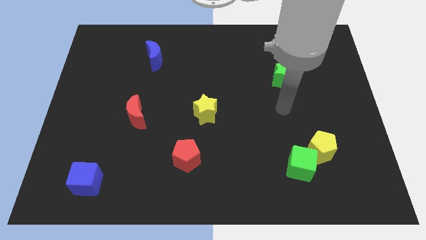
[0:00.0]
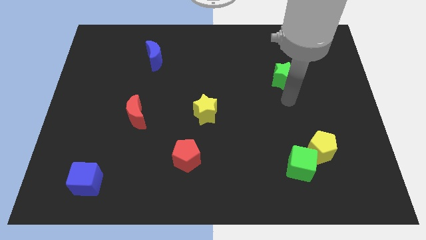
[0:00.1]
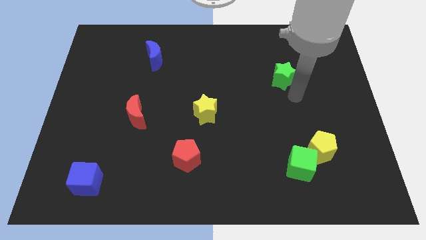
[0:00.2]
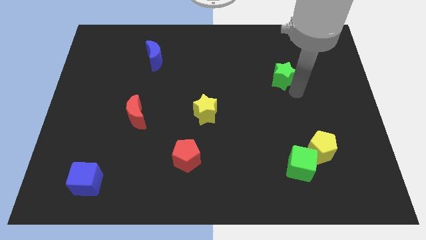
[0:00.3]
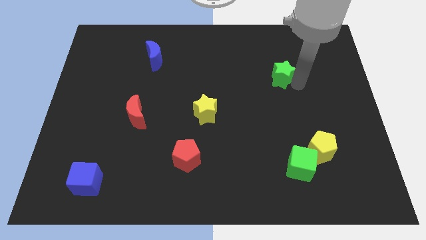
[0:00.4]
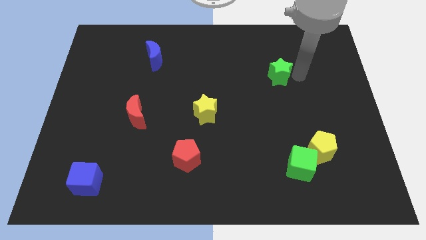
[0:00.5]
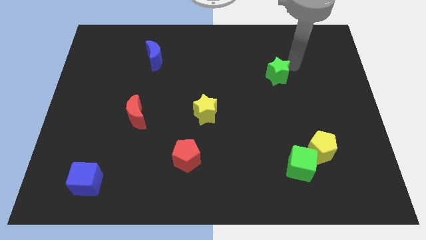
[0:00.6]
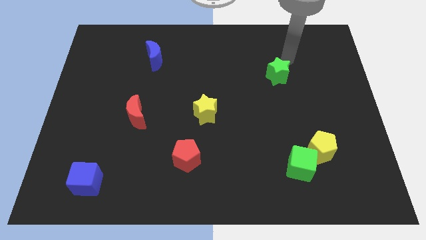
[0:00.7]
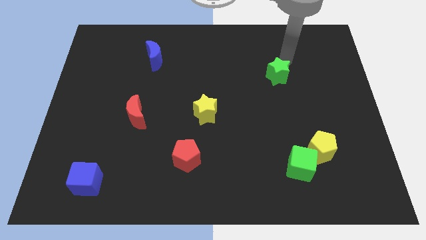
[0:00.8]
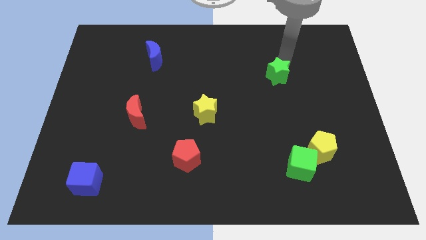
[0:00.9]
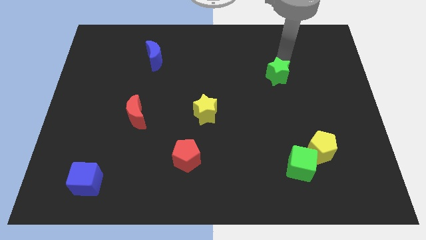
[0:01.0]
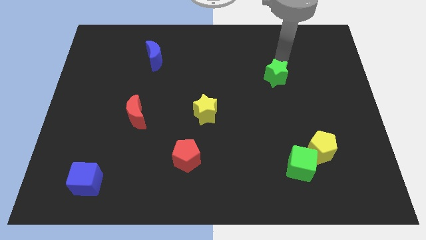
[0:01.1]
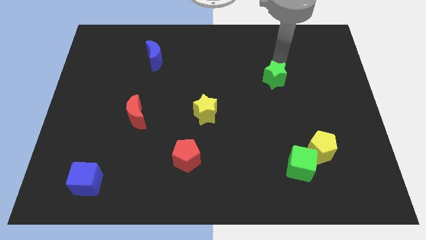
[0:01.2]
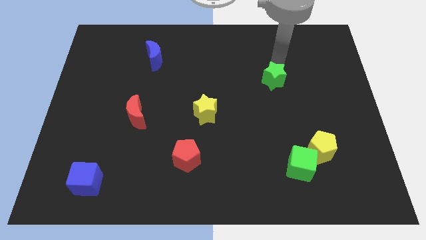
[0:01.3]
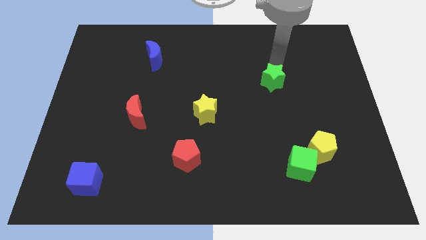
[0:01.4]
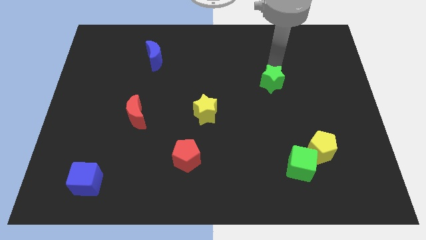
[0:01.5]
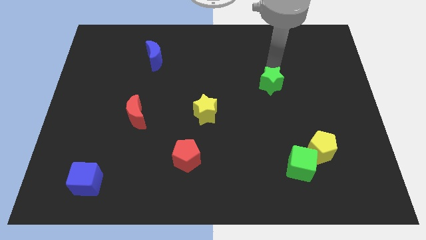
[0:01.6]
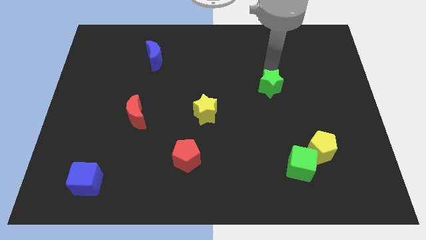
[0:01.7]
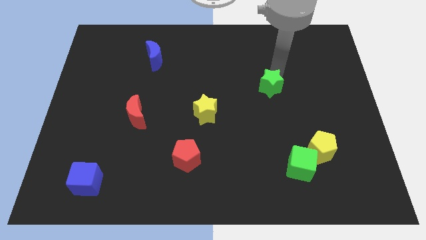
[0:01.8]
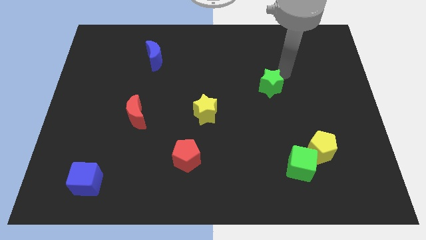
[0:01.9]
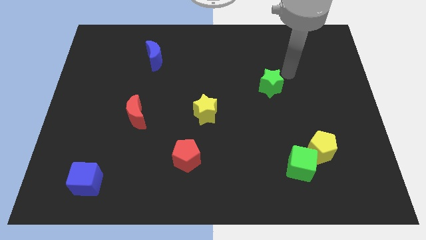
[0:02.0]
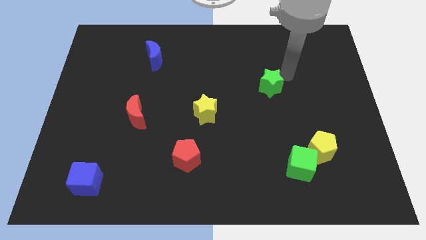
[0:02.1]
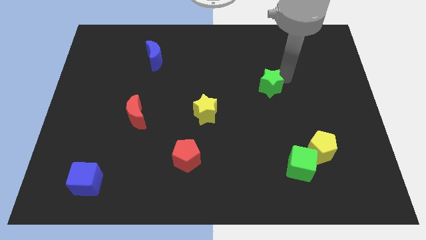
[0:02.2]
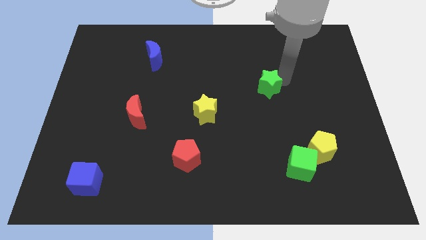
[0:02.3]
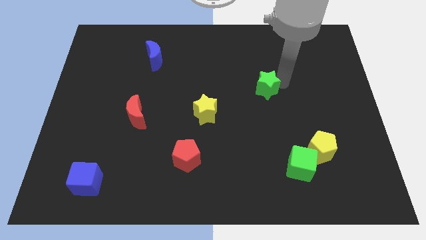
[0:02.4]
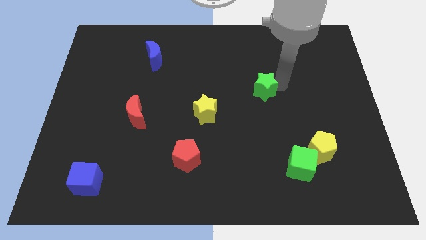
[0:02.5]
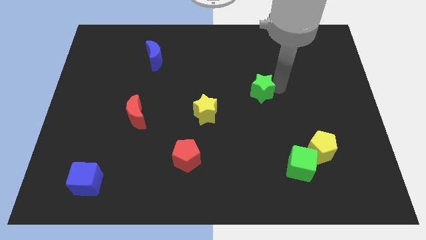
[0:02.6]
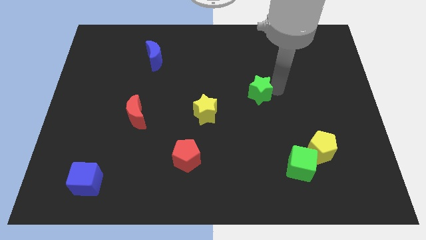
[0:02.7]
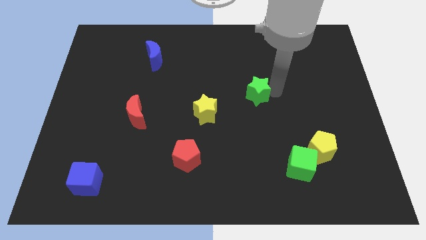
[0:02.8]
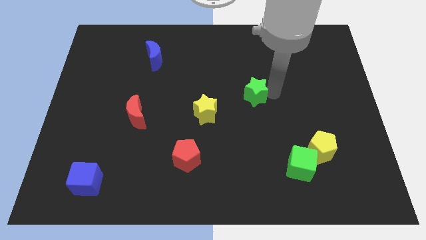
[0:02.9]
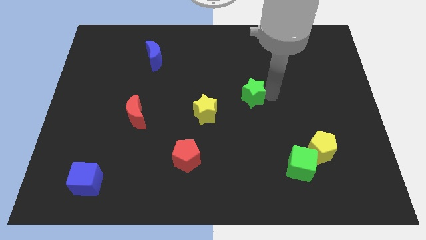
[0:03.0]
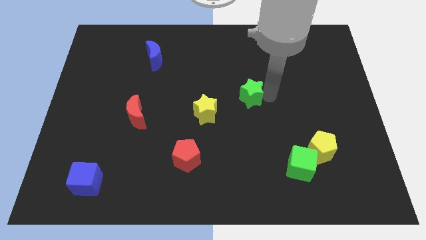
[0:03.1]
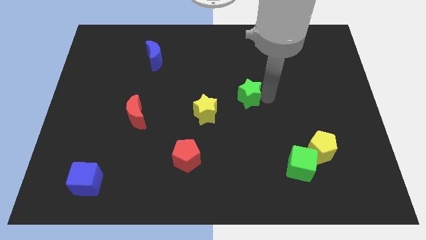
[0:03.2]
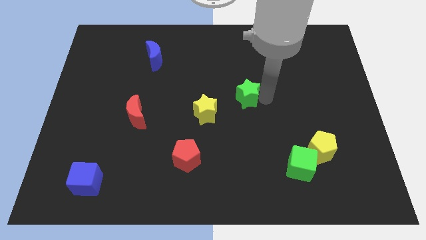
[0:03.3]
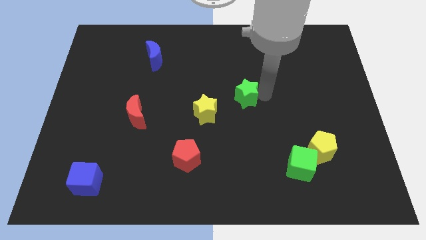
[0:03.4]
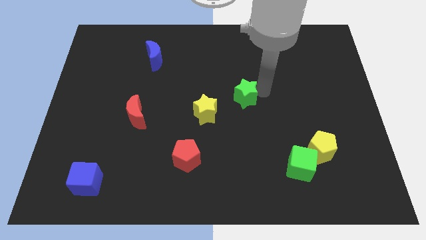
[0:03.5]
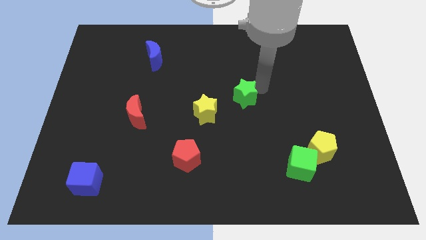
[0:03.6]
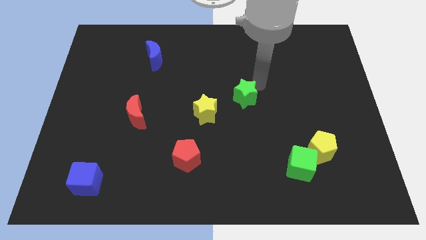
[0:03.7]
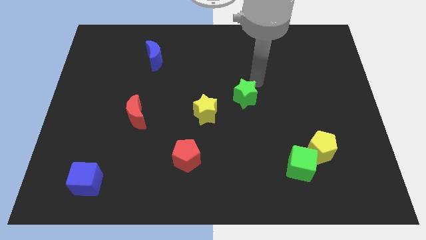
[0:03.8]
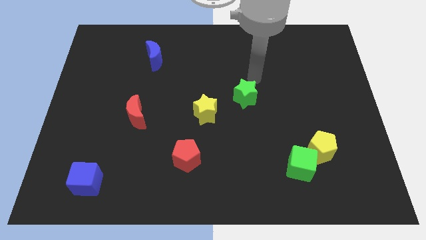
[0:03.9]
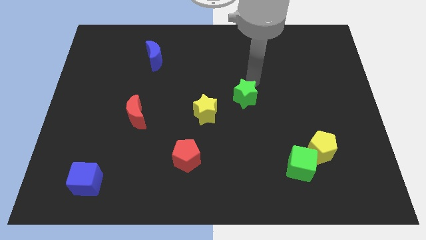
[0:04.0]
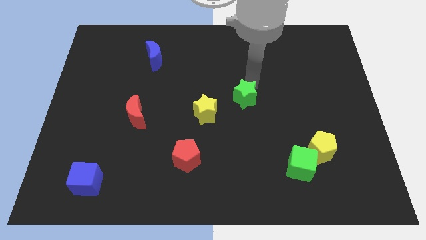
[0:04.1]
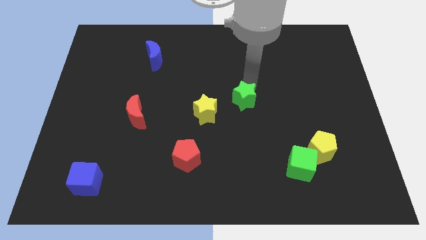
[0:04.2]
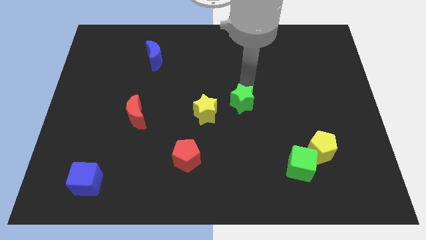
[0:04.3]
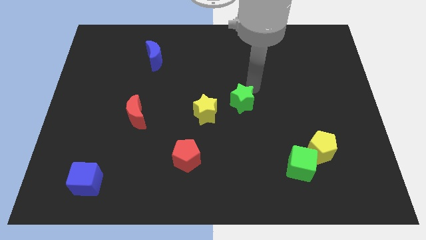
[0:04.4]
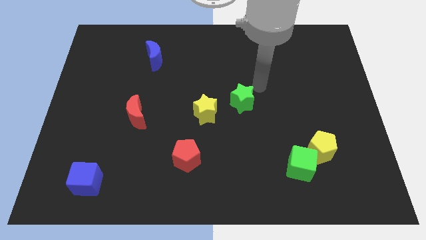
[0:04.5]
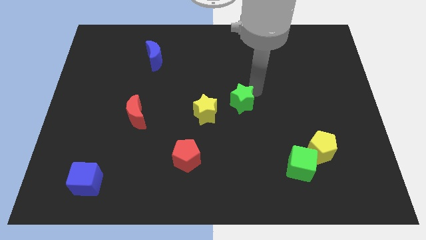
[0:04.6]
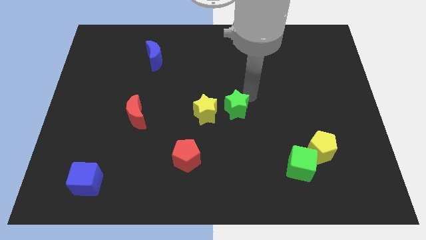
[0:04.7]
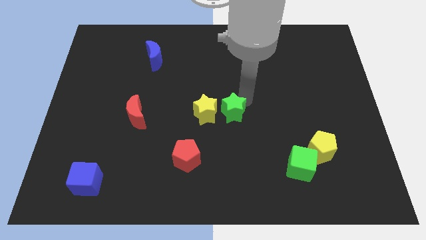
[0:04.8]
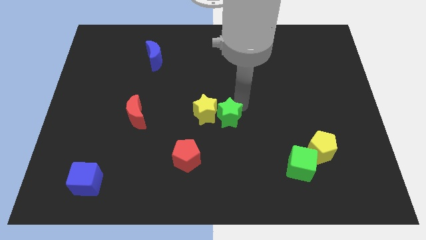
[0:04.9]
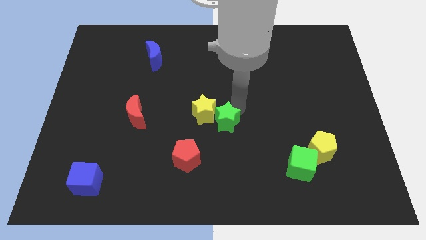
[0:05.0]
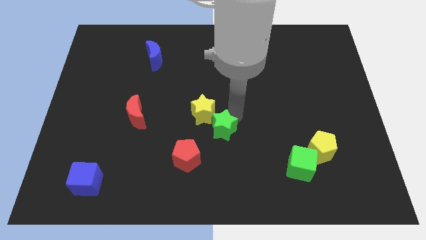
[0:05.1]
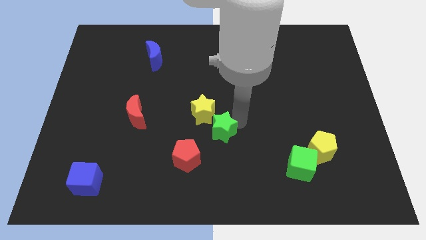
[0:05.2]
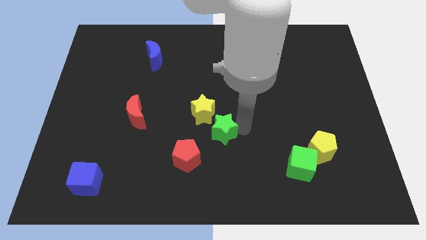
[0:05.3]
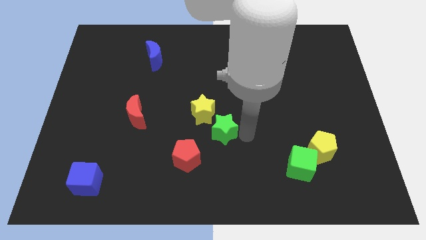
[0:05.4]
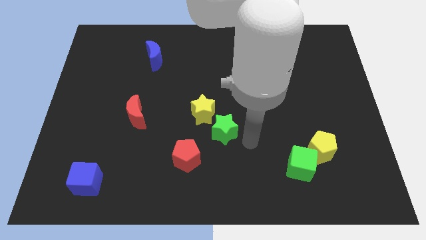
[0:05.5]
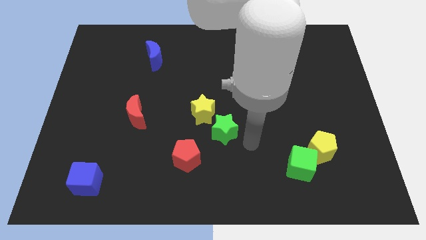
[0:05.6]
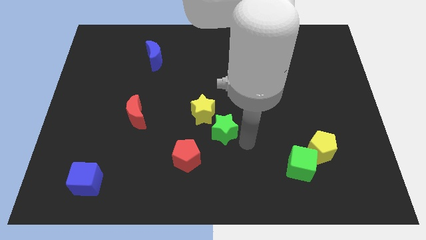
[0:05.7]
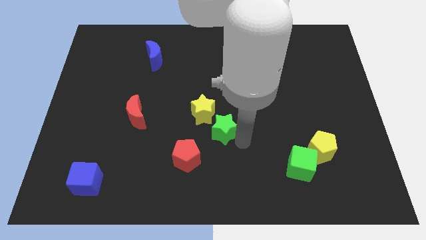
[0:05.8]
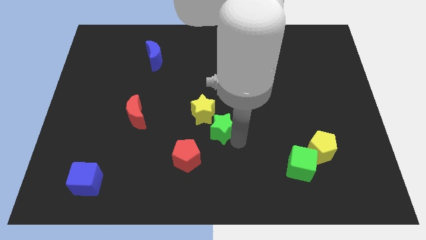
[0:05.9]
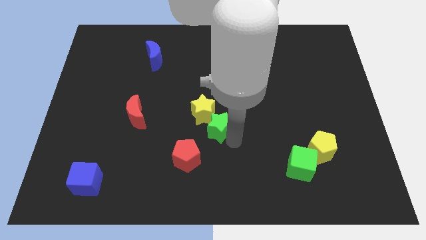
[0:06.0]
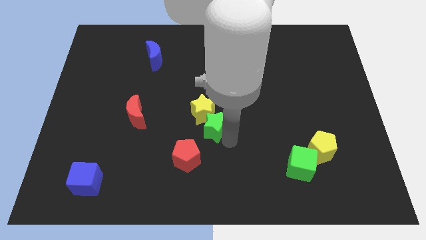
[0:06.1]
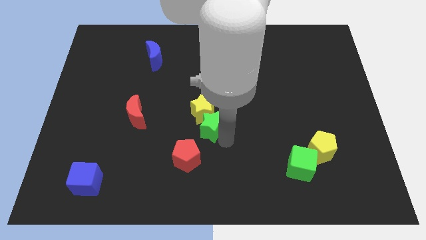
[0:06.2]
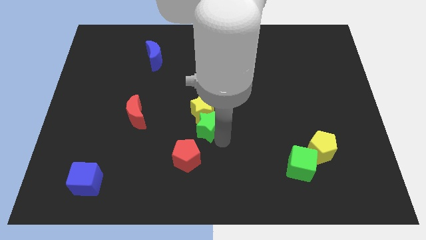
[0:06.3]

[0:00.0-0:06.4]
put the green star to the top of the red pentagon

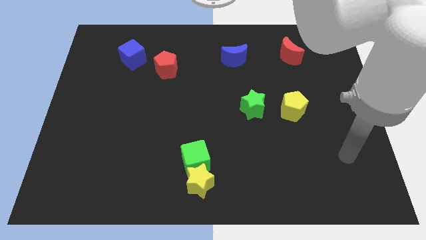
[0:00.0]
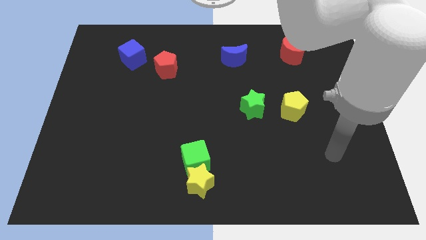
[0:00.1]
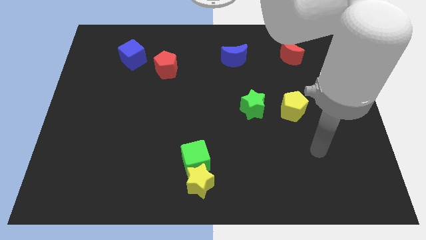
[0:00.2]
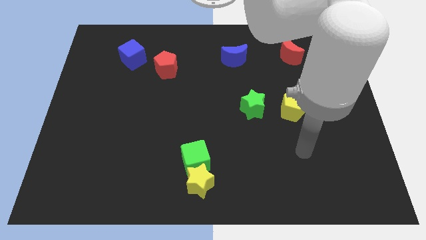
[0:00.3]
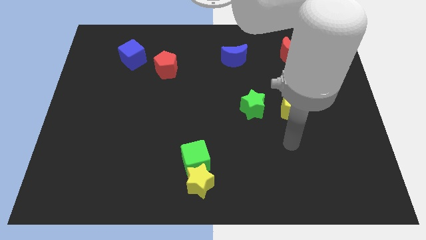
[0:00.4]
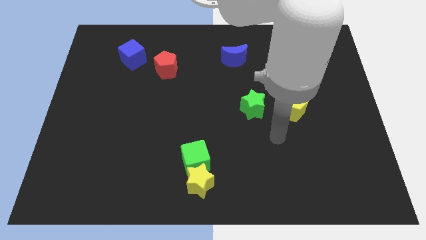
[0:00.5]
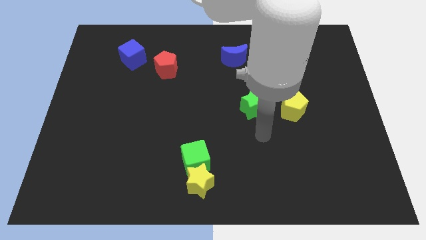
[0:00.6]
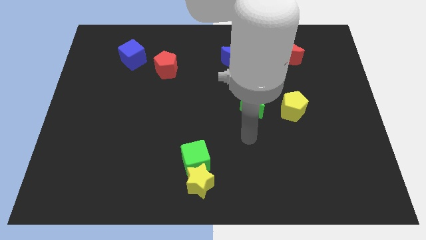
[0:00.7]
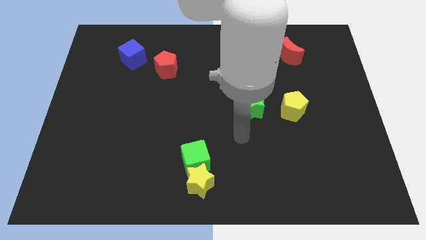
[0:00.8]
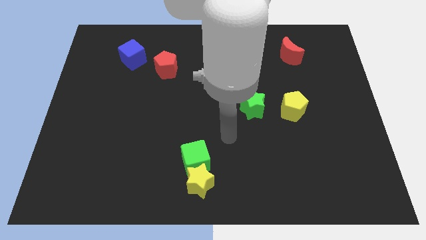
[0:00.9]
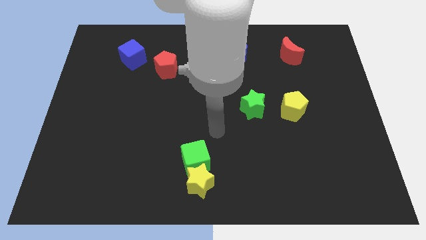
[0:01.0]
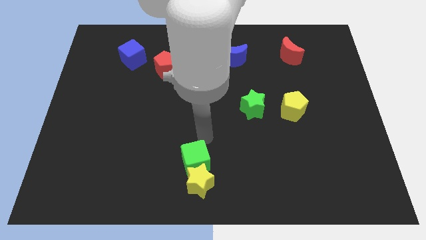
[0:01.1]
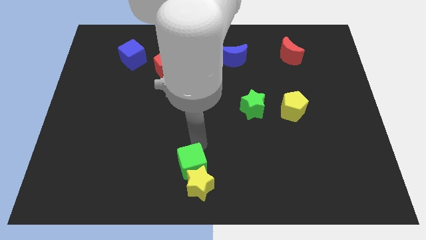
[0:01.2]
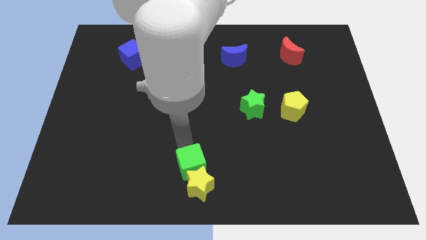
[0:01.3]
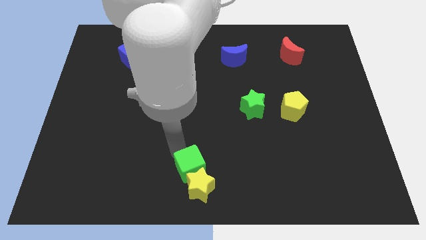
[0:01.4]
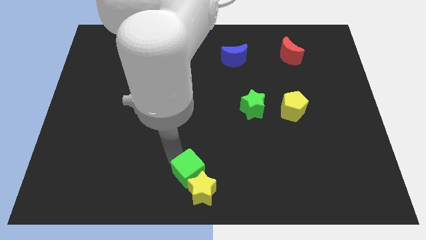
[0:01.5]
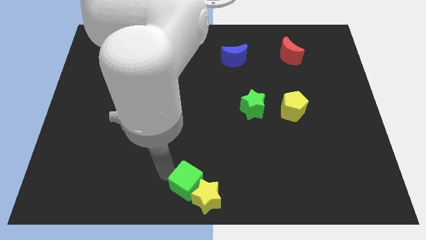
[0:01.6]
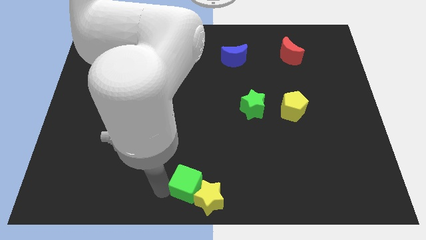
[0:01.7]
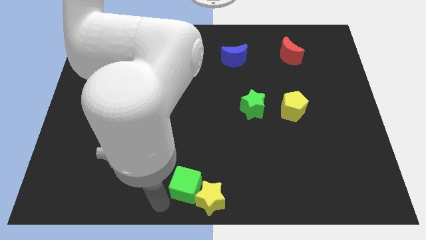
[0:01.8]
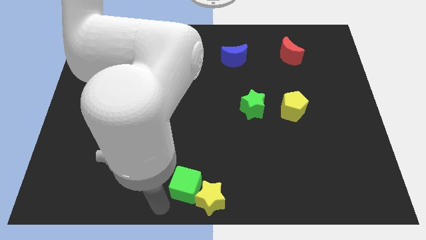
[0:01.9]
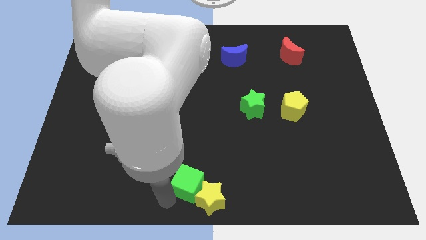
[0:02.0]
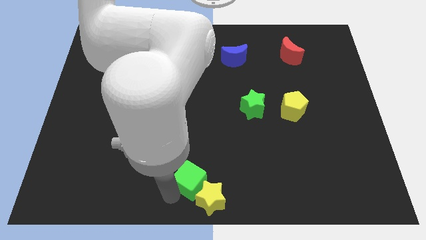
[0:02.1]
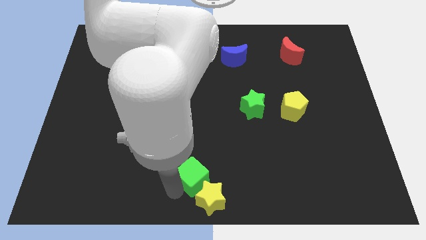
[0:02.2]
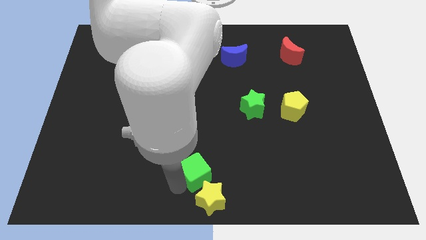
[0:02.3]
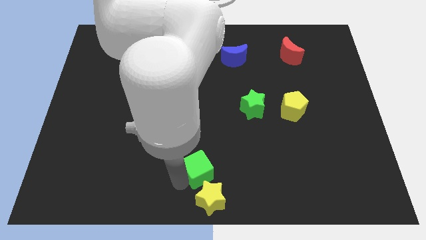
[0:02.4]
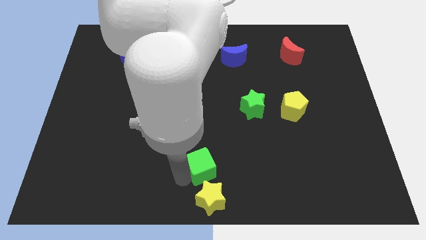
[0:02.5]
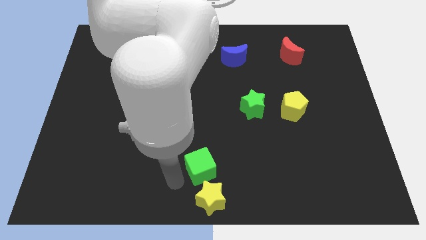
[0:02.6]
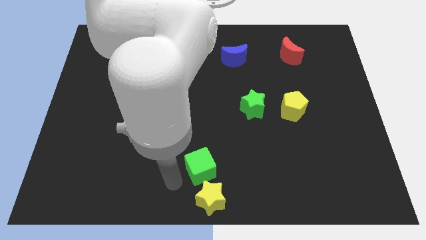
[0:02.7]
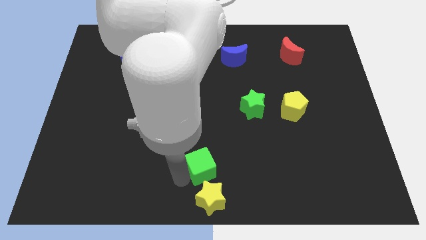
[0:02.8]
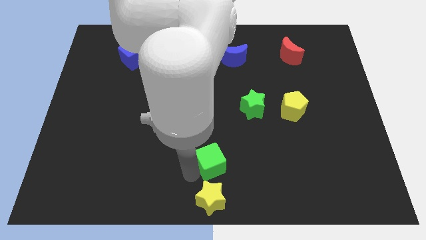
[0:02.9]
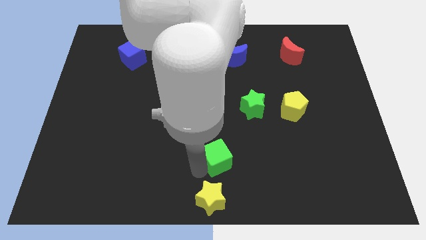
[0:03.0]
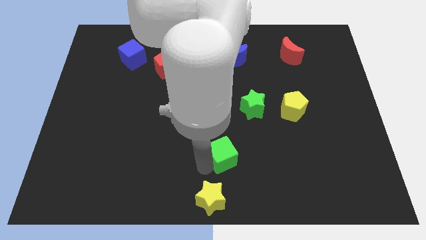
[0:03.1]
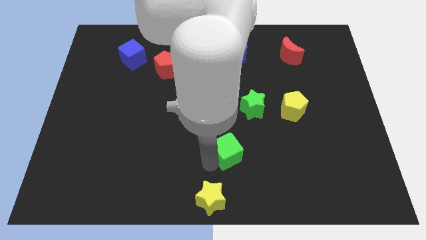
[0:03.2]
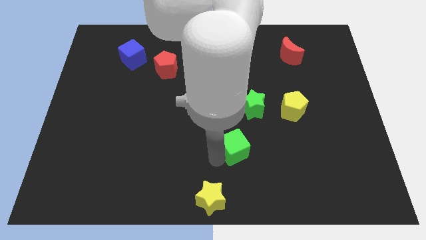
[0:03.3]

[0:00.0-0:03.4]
put the green cube to the bottom side of the green star
